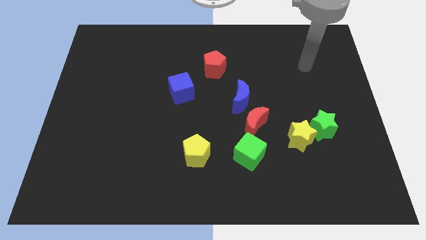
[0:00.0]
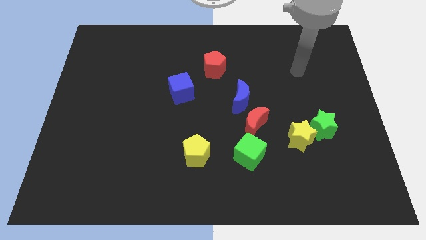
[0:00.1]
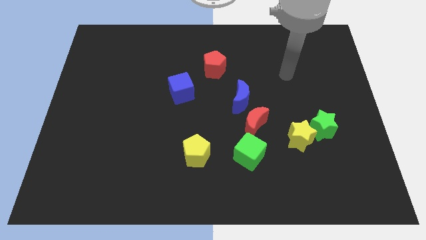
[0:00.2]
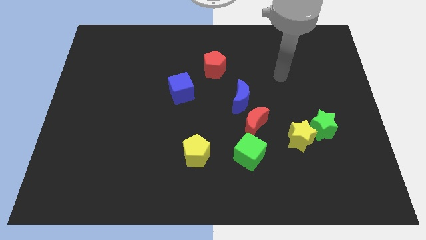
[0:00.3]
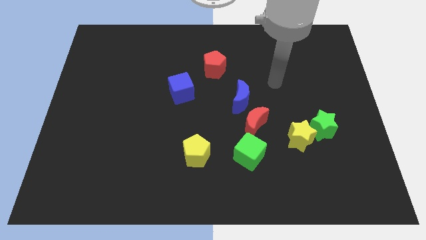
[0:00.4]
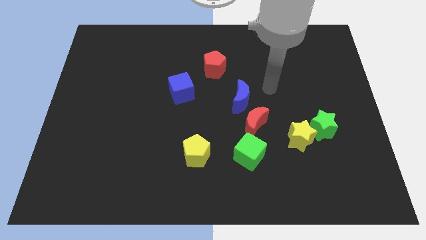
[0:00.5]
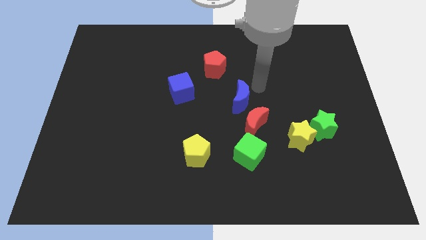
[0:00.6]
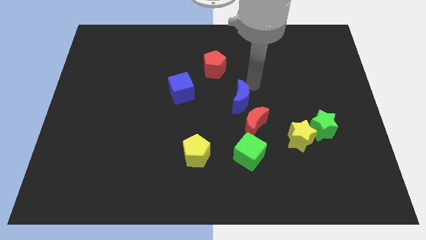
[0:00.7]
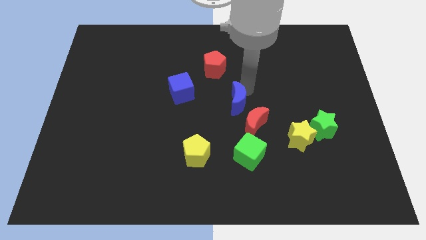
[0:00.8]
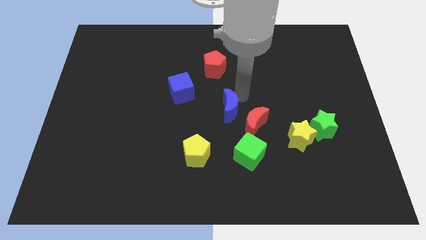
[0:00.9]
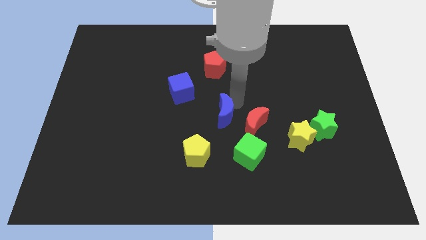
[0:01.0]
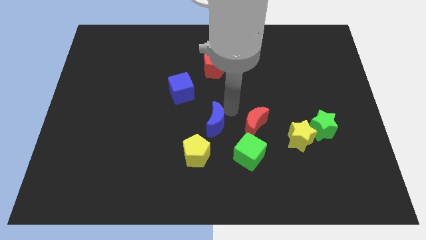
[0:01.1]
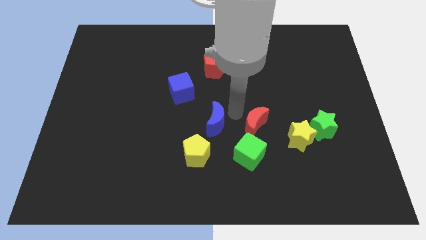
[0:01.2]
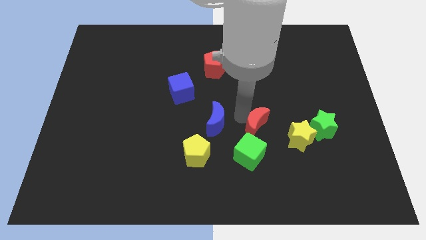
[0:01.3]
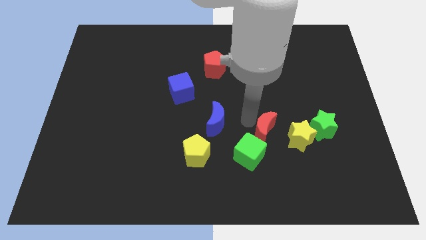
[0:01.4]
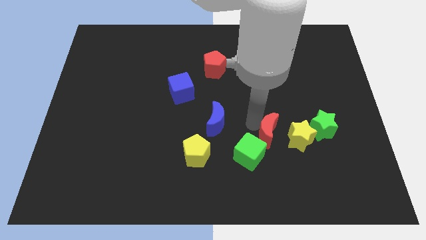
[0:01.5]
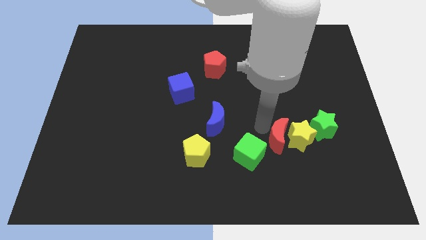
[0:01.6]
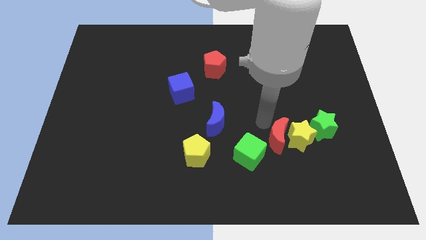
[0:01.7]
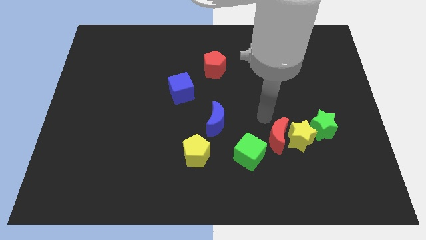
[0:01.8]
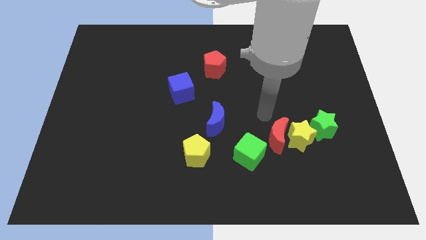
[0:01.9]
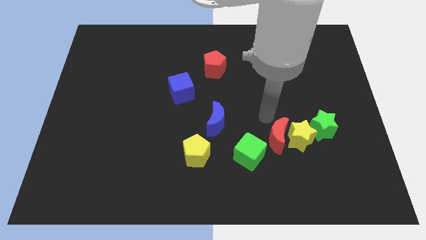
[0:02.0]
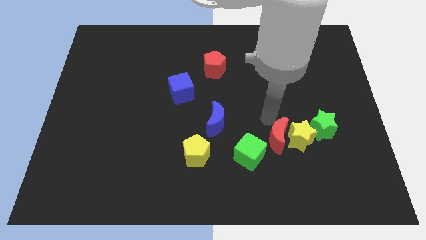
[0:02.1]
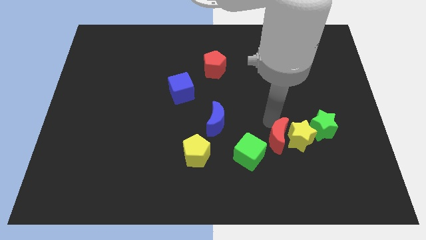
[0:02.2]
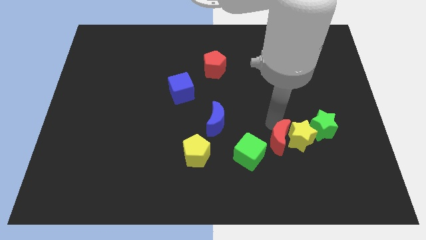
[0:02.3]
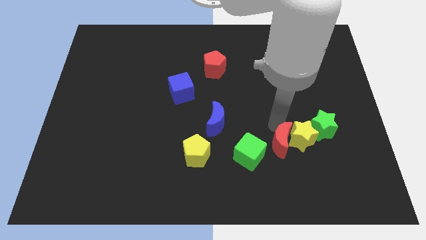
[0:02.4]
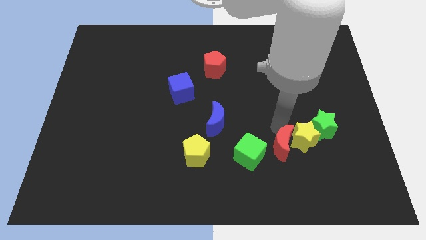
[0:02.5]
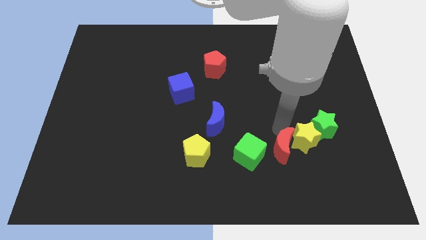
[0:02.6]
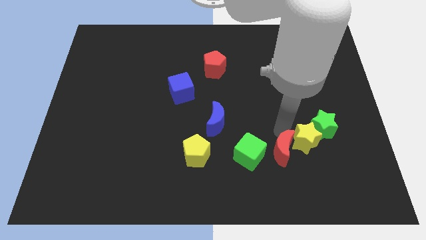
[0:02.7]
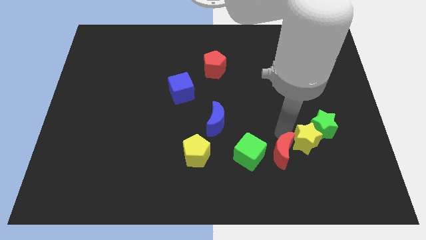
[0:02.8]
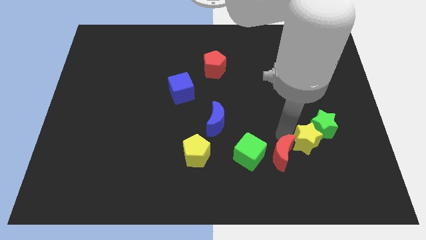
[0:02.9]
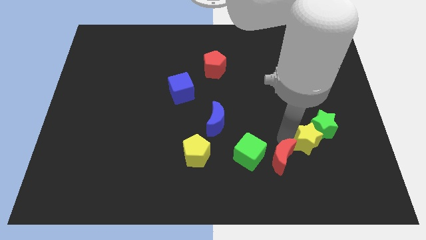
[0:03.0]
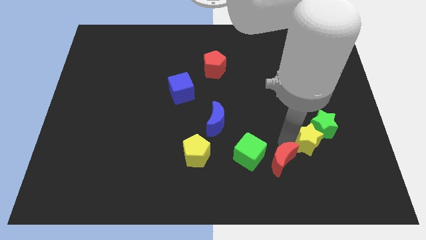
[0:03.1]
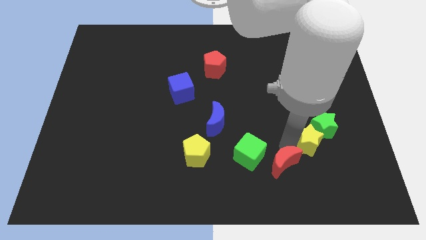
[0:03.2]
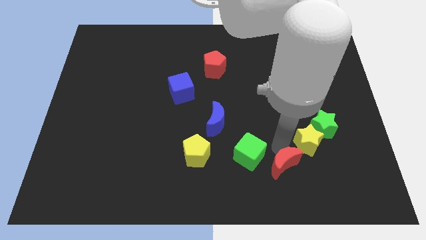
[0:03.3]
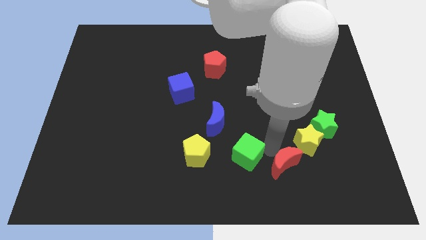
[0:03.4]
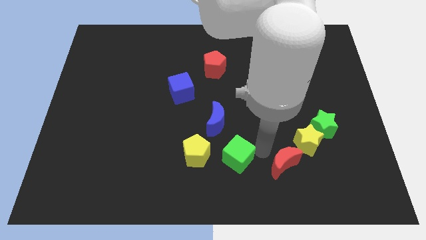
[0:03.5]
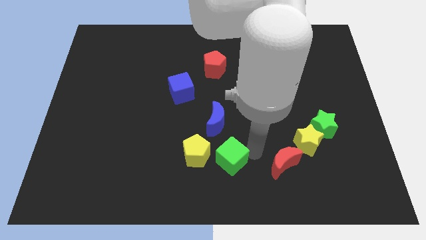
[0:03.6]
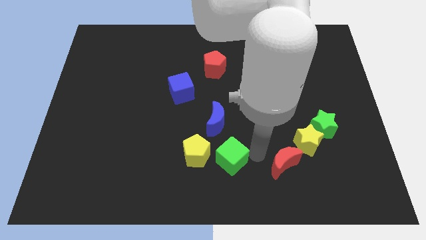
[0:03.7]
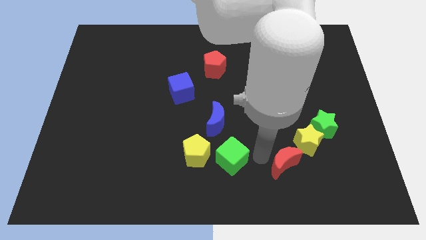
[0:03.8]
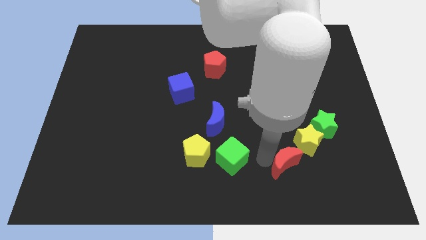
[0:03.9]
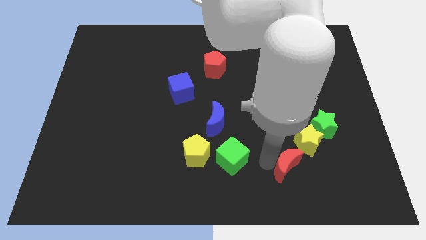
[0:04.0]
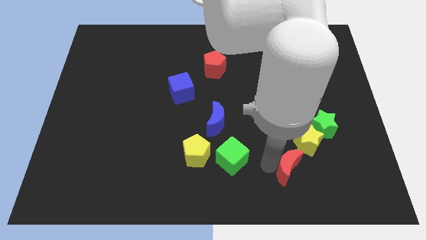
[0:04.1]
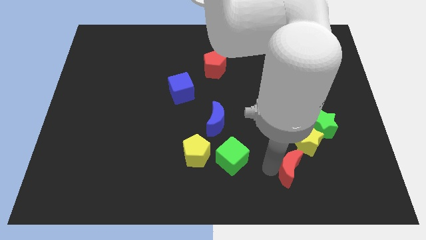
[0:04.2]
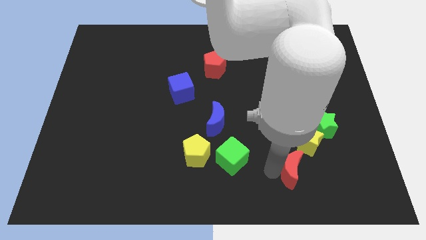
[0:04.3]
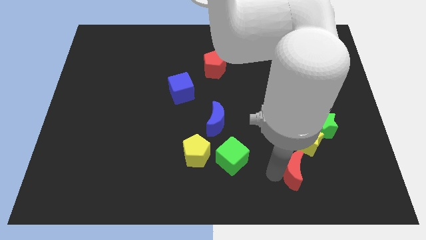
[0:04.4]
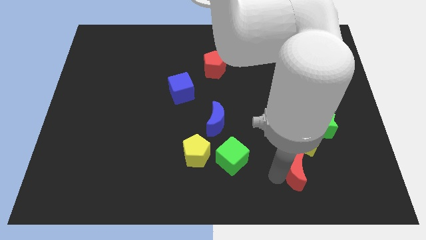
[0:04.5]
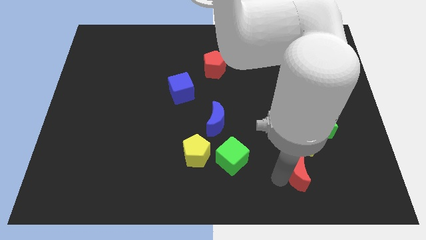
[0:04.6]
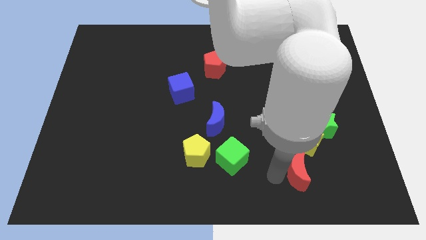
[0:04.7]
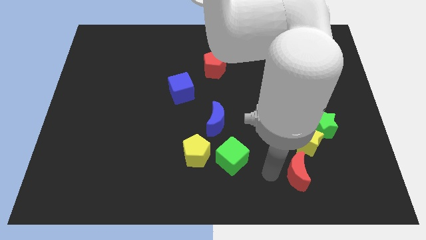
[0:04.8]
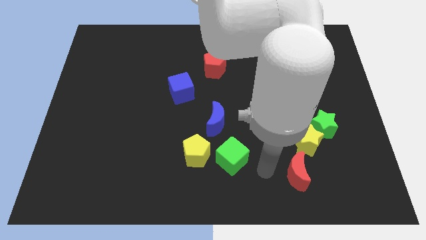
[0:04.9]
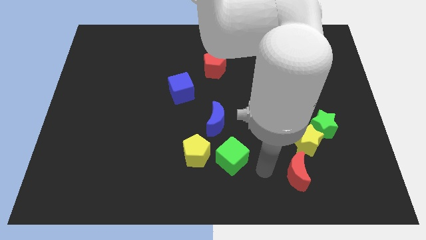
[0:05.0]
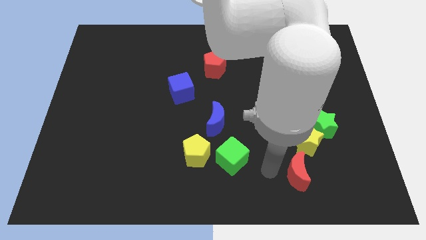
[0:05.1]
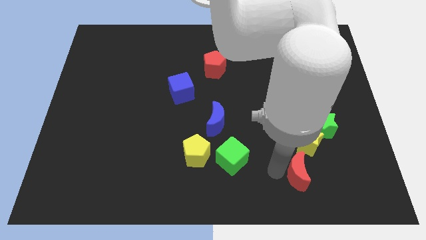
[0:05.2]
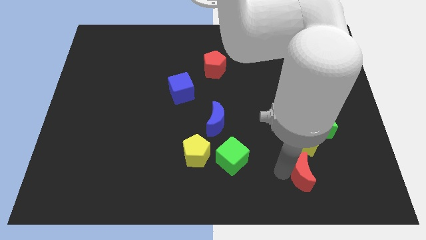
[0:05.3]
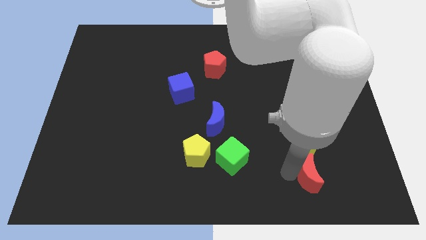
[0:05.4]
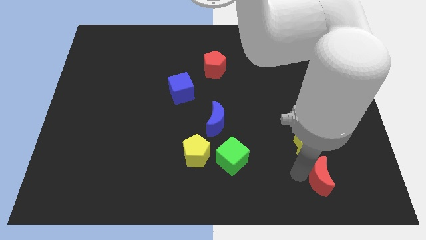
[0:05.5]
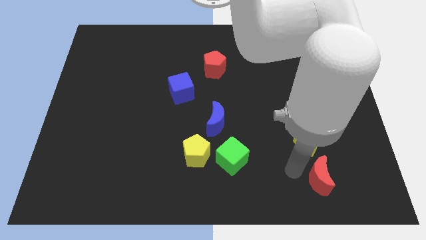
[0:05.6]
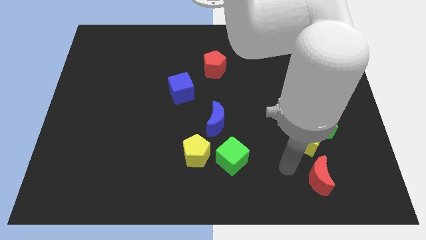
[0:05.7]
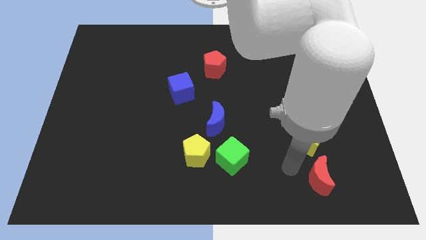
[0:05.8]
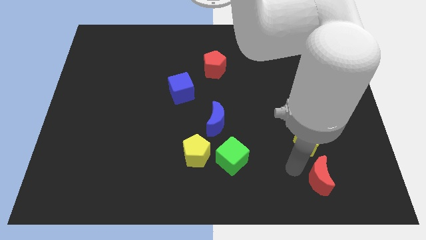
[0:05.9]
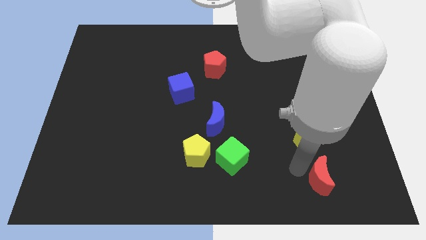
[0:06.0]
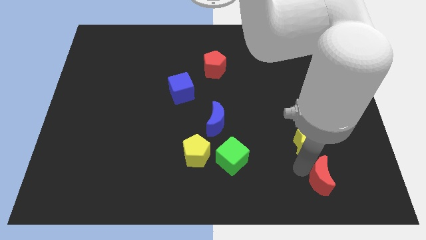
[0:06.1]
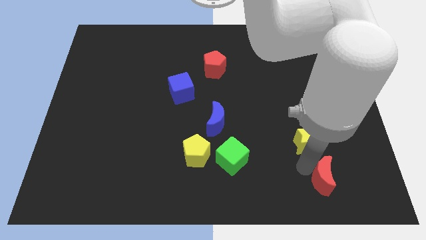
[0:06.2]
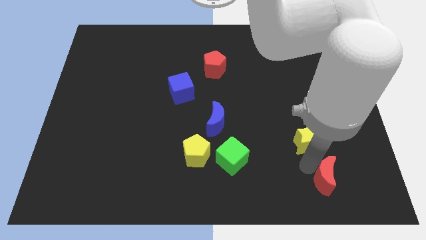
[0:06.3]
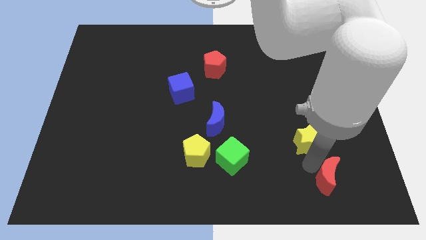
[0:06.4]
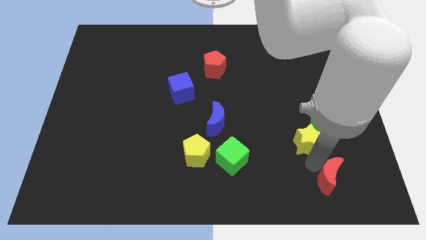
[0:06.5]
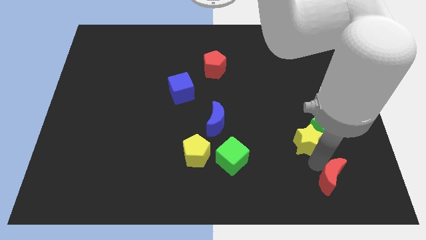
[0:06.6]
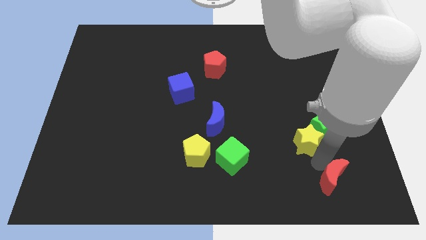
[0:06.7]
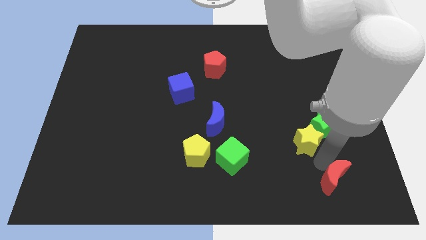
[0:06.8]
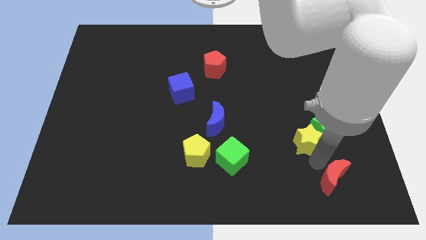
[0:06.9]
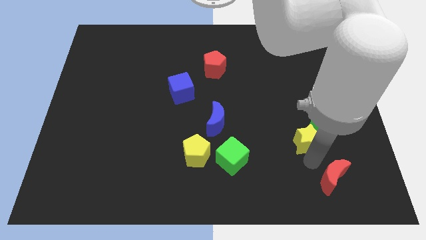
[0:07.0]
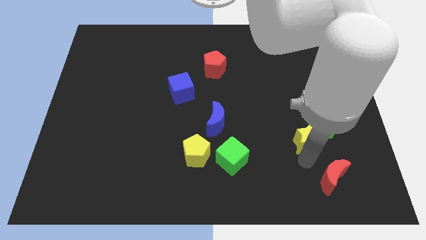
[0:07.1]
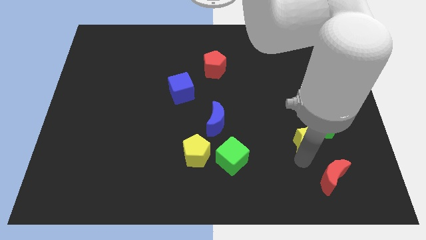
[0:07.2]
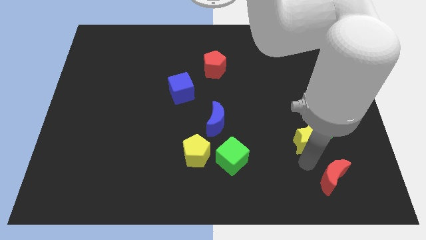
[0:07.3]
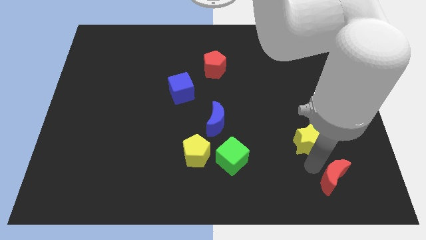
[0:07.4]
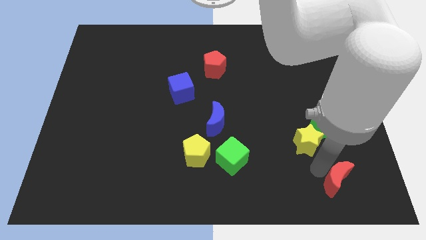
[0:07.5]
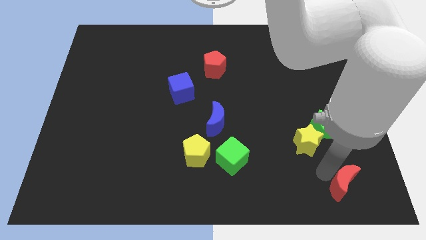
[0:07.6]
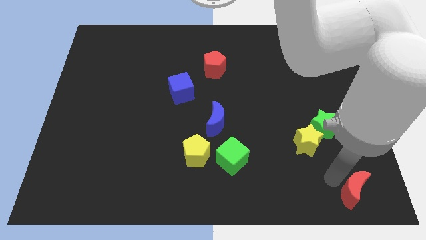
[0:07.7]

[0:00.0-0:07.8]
put the red moon to the bottom right corner
